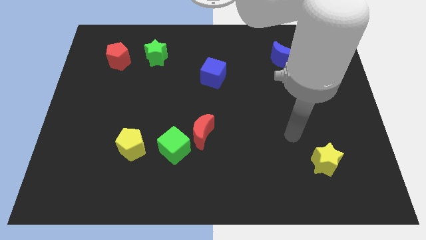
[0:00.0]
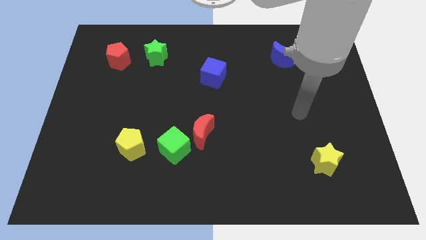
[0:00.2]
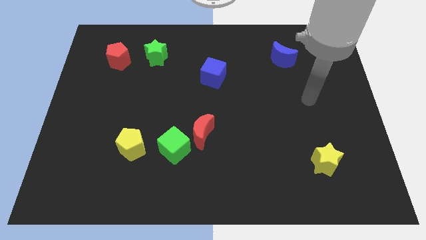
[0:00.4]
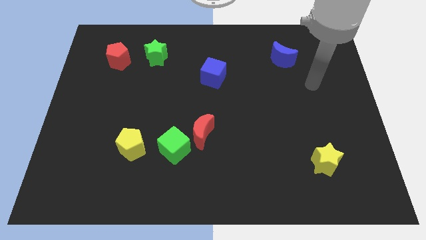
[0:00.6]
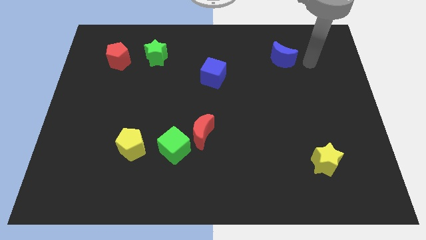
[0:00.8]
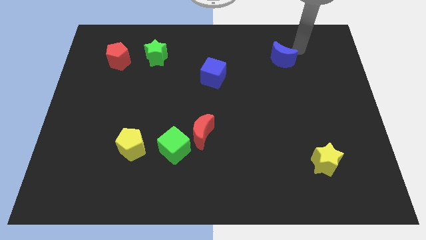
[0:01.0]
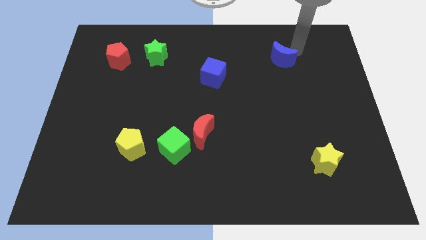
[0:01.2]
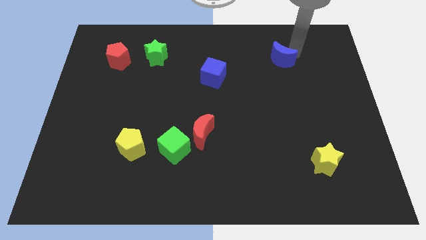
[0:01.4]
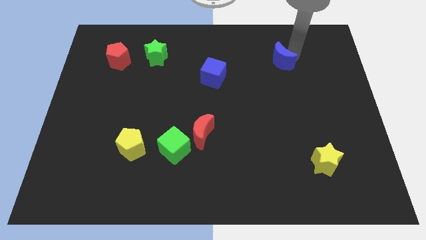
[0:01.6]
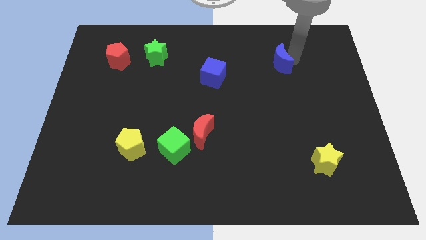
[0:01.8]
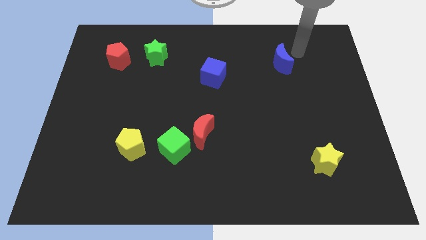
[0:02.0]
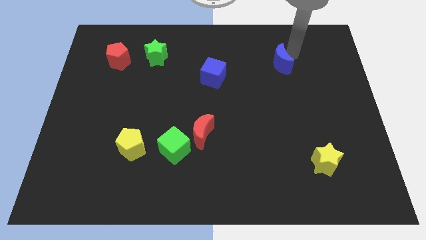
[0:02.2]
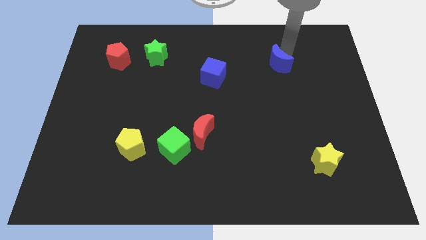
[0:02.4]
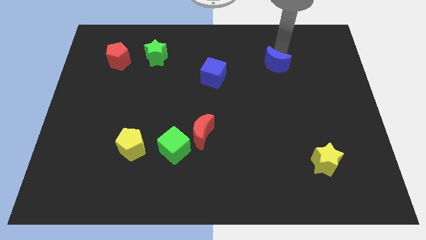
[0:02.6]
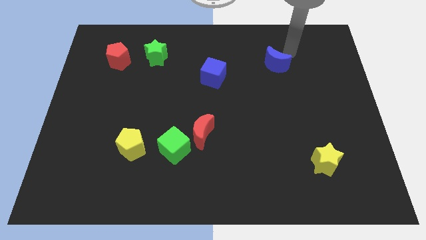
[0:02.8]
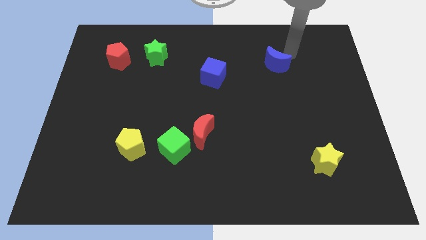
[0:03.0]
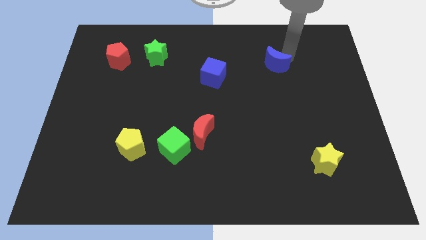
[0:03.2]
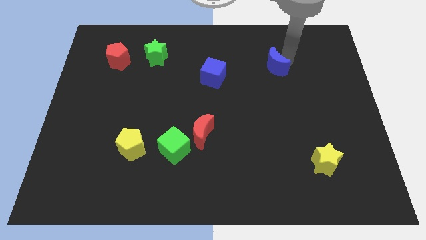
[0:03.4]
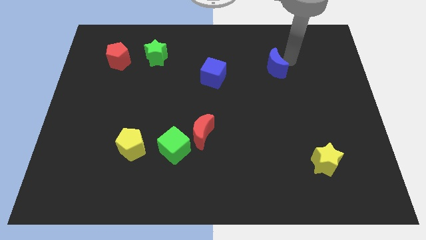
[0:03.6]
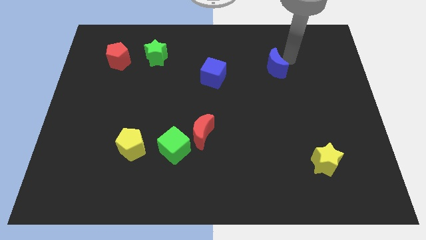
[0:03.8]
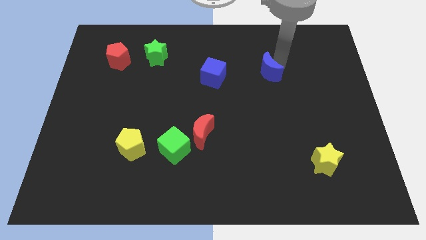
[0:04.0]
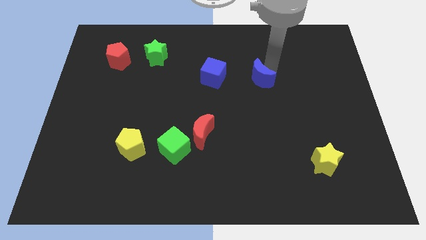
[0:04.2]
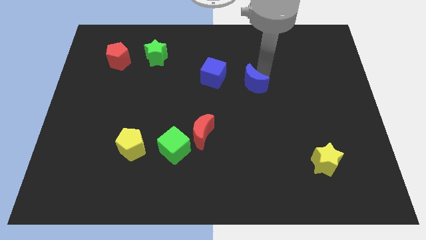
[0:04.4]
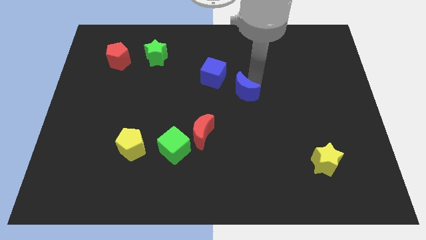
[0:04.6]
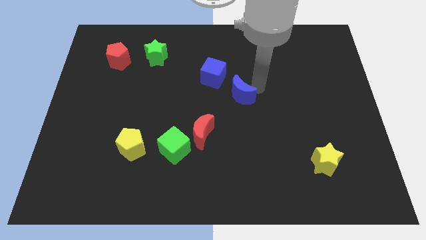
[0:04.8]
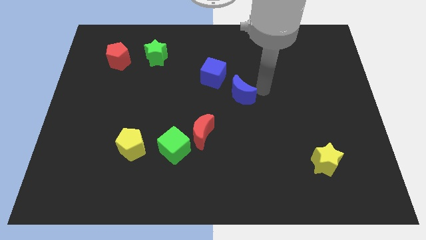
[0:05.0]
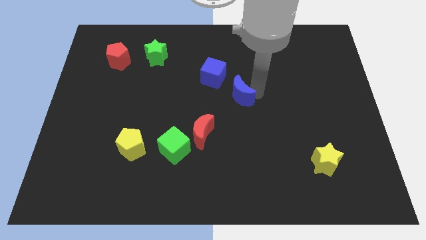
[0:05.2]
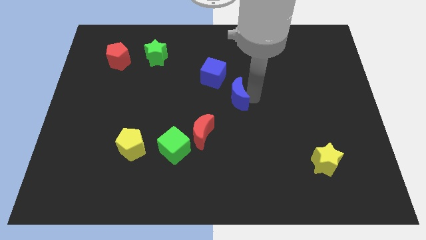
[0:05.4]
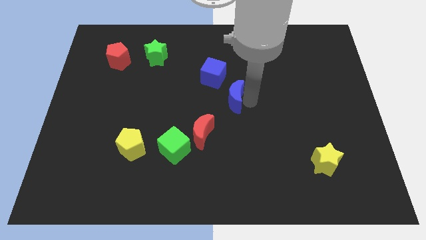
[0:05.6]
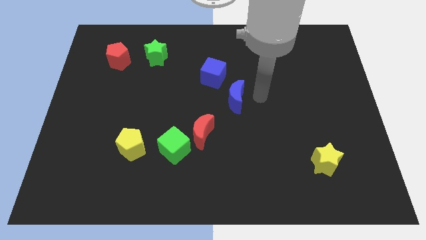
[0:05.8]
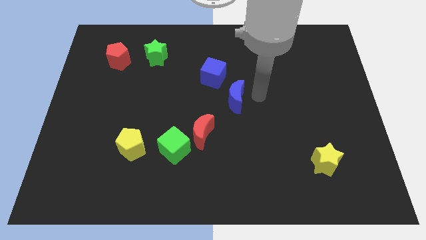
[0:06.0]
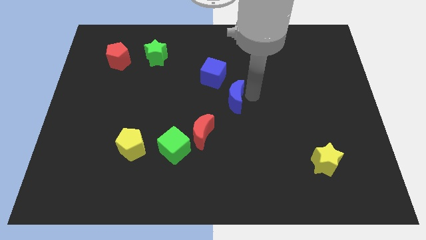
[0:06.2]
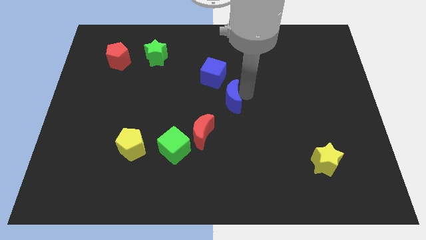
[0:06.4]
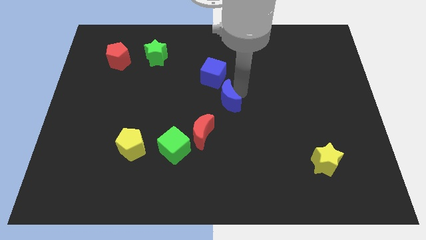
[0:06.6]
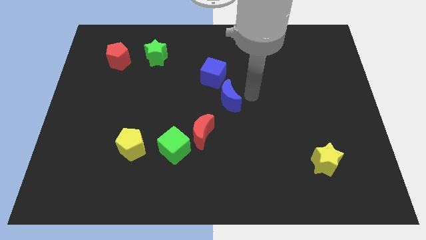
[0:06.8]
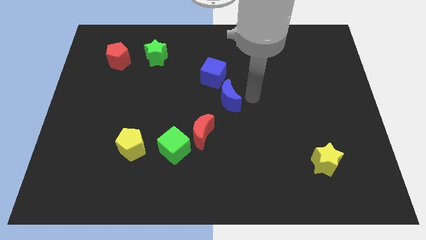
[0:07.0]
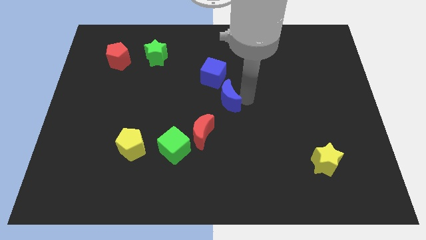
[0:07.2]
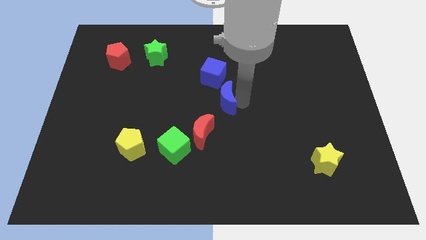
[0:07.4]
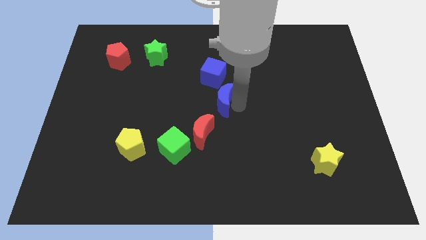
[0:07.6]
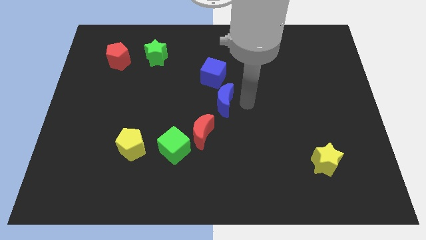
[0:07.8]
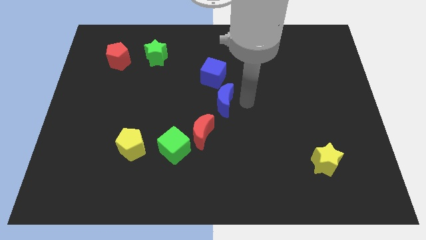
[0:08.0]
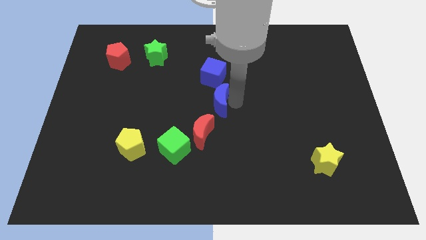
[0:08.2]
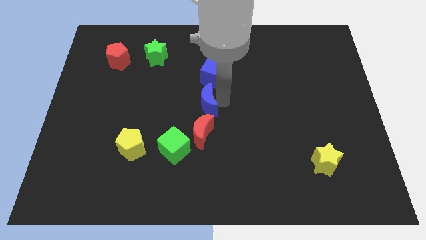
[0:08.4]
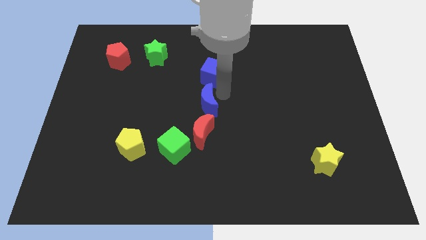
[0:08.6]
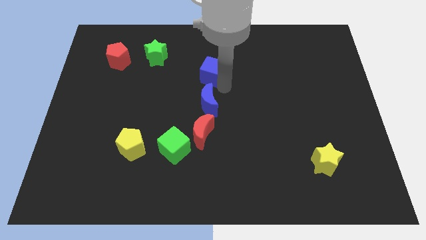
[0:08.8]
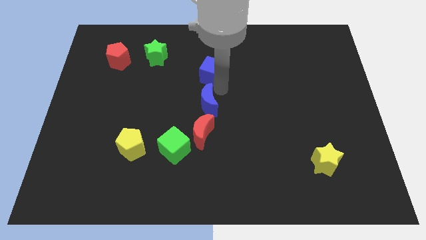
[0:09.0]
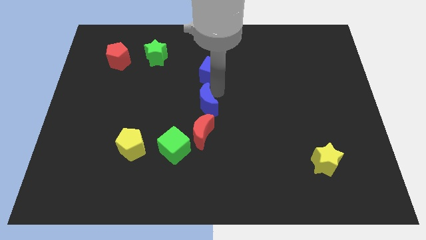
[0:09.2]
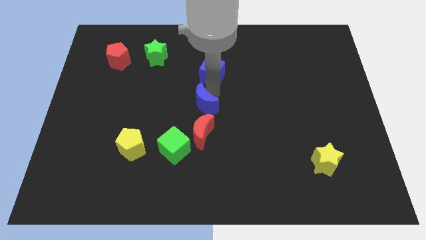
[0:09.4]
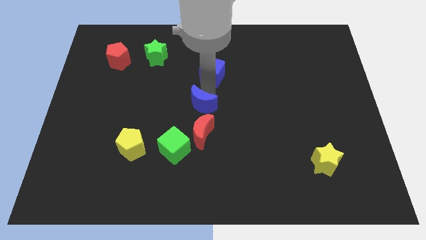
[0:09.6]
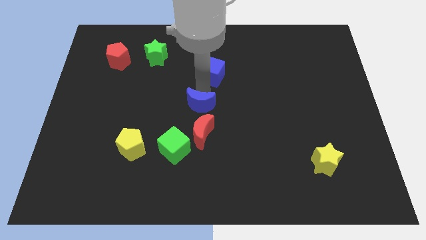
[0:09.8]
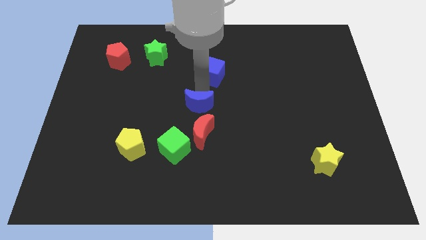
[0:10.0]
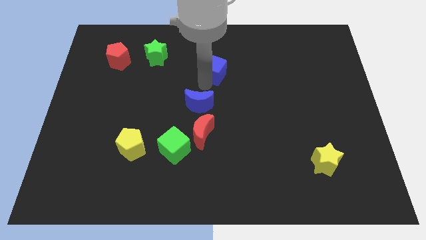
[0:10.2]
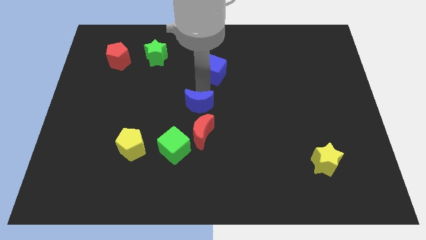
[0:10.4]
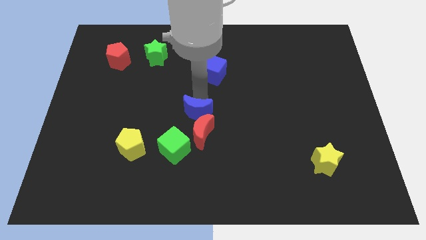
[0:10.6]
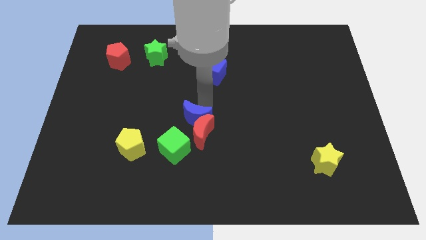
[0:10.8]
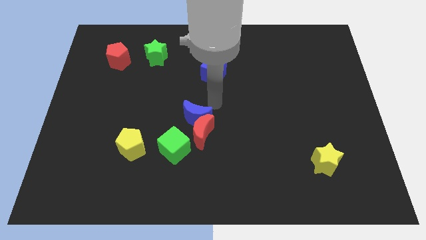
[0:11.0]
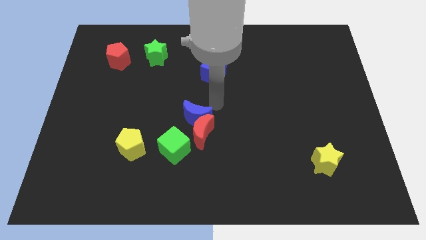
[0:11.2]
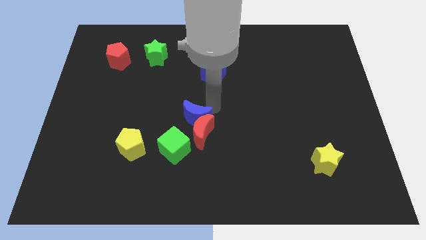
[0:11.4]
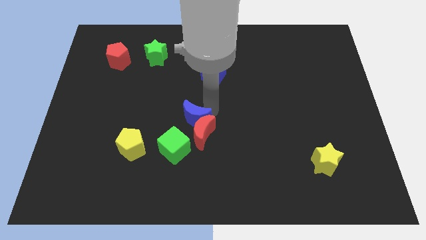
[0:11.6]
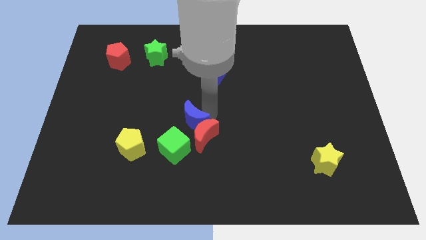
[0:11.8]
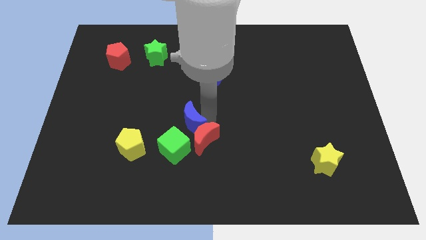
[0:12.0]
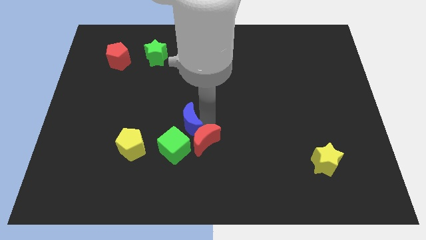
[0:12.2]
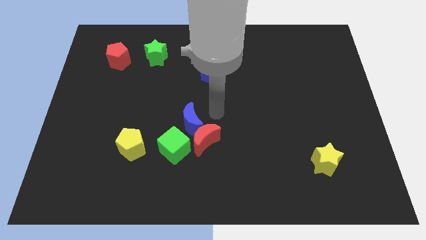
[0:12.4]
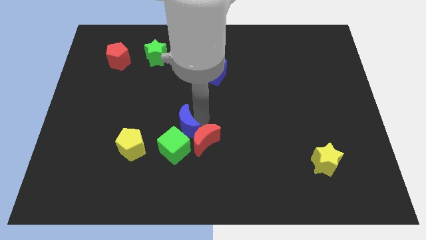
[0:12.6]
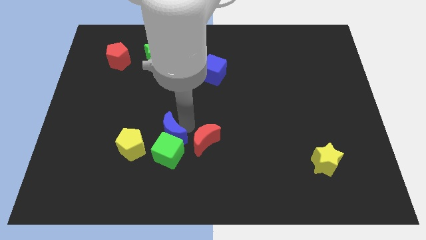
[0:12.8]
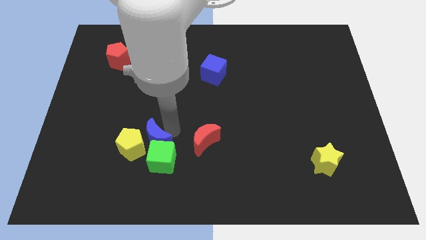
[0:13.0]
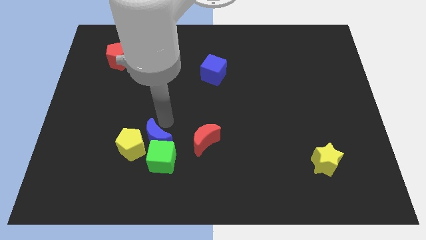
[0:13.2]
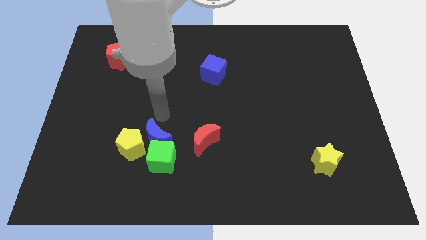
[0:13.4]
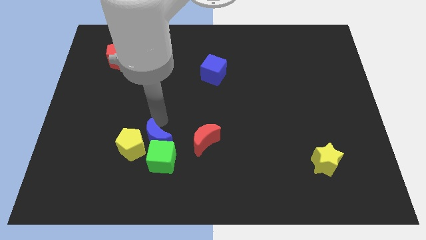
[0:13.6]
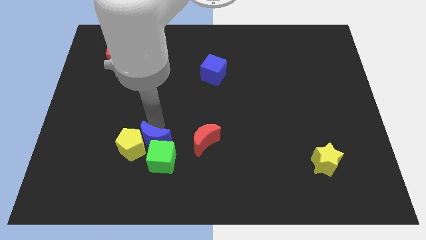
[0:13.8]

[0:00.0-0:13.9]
slide the blue moon to the bottom right of the yellow pentagon
